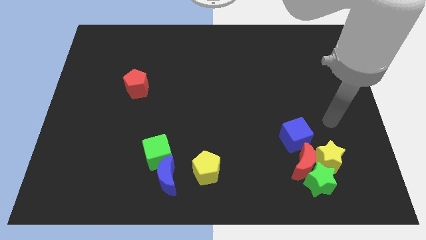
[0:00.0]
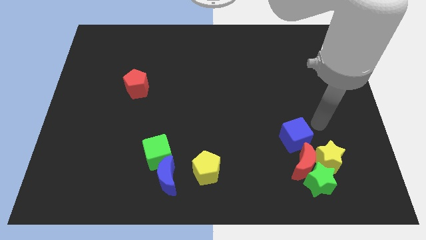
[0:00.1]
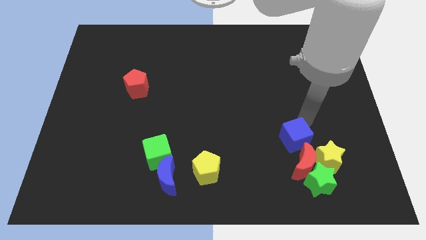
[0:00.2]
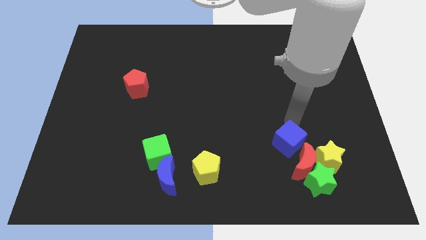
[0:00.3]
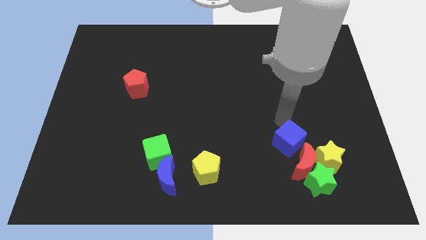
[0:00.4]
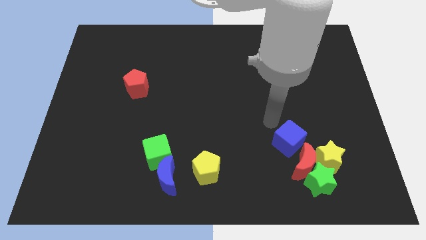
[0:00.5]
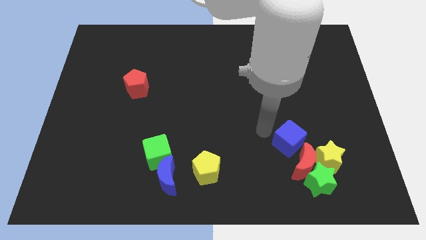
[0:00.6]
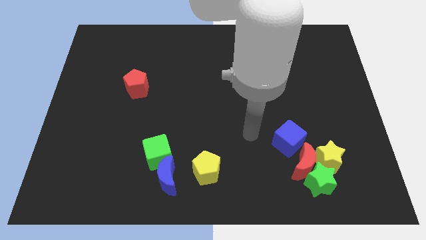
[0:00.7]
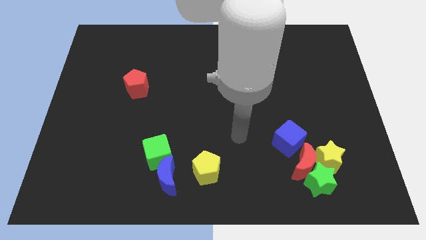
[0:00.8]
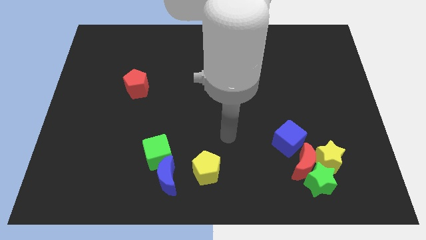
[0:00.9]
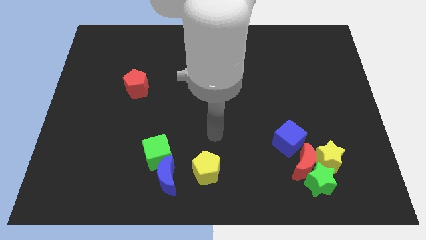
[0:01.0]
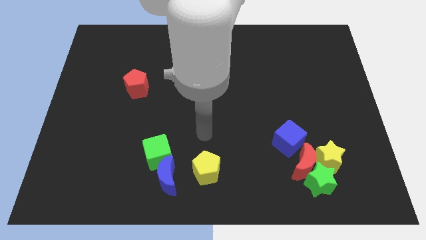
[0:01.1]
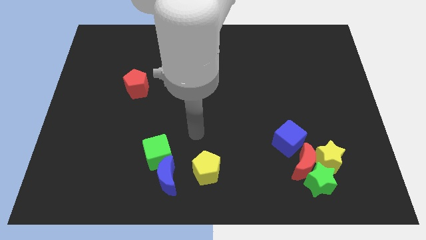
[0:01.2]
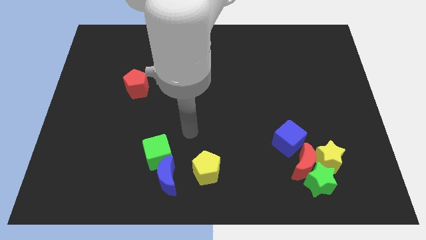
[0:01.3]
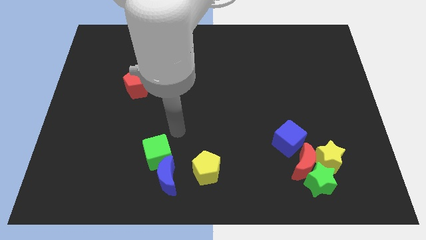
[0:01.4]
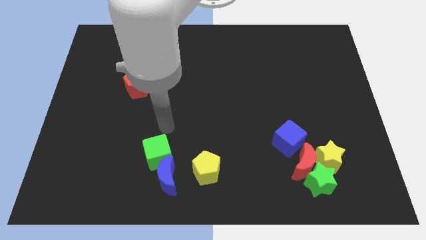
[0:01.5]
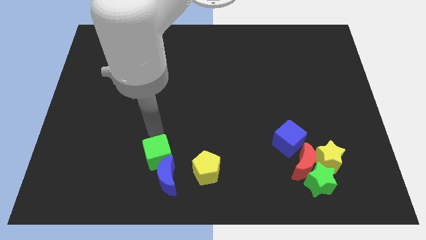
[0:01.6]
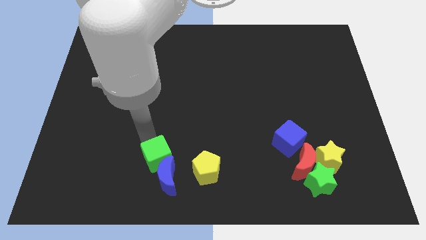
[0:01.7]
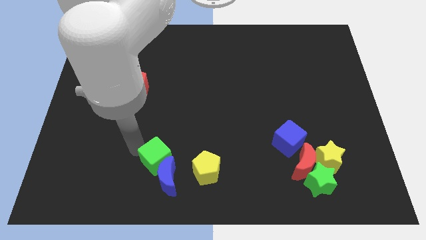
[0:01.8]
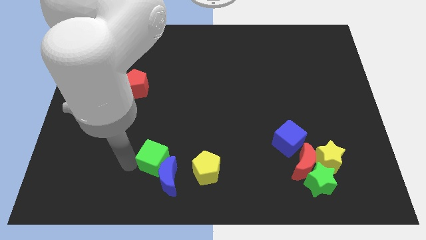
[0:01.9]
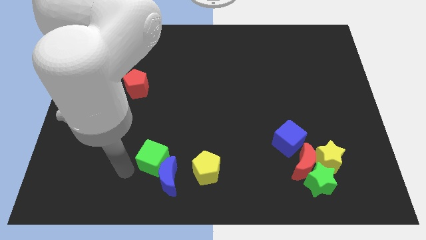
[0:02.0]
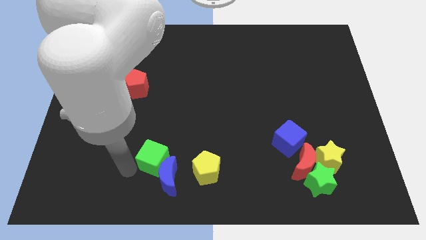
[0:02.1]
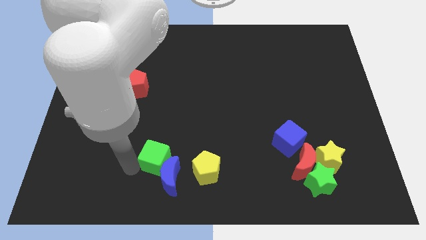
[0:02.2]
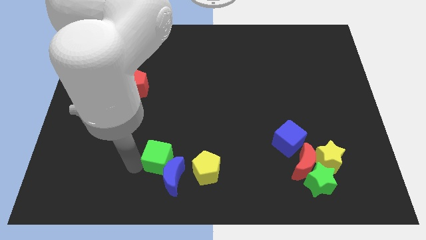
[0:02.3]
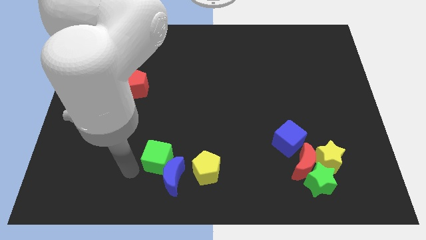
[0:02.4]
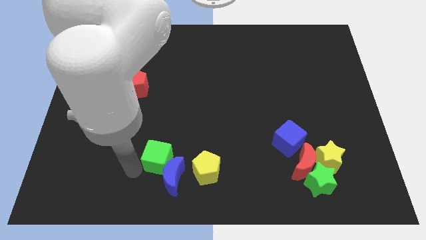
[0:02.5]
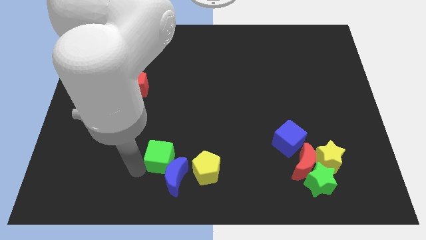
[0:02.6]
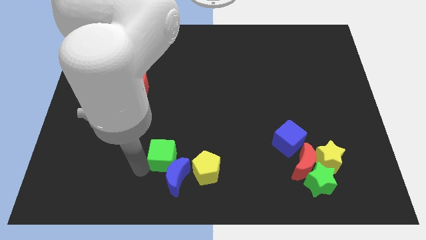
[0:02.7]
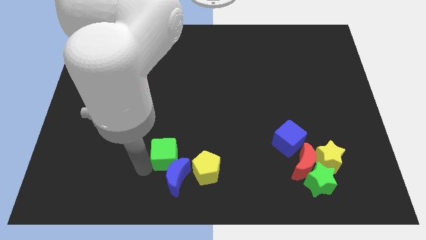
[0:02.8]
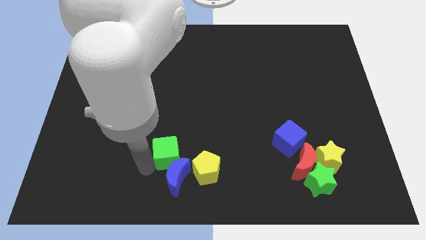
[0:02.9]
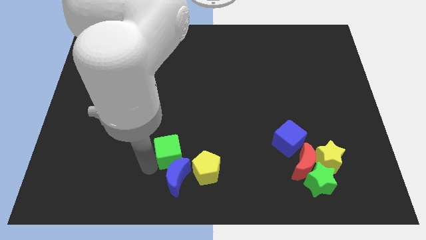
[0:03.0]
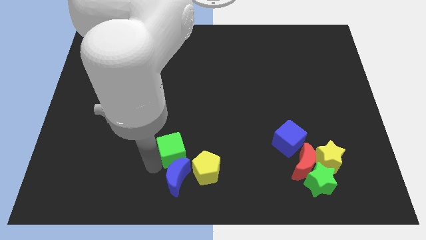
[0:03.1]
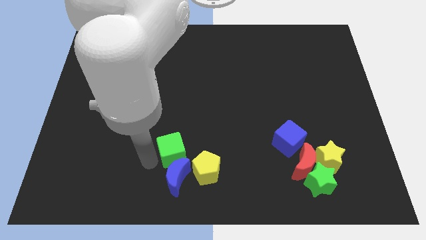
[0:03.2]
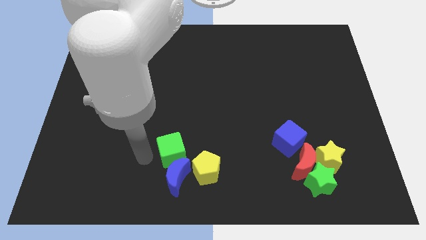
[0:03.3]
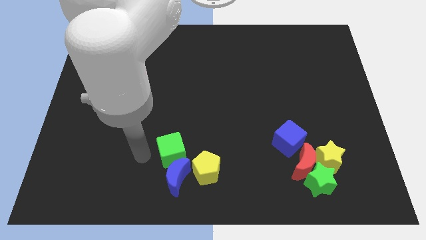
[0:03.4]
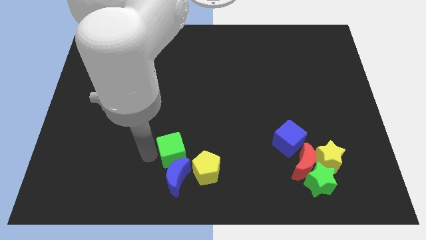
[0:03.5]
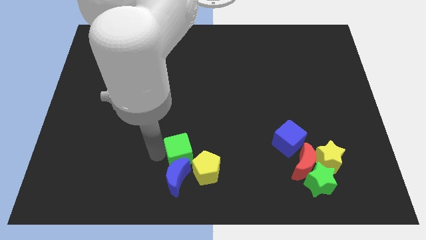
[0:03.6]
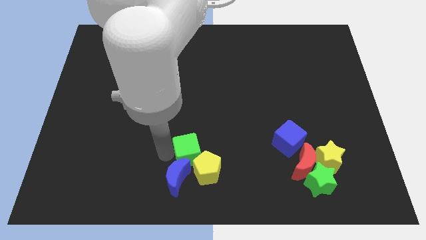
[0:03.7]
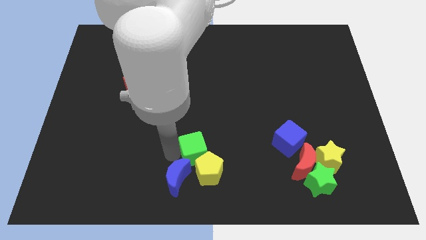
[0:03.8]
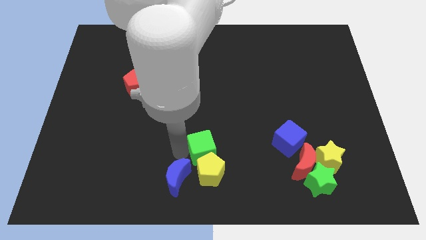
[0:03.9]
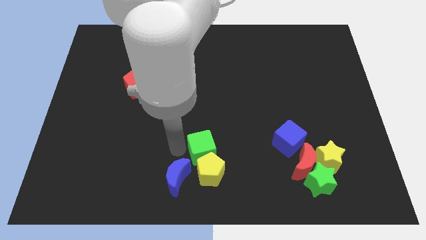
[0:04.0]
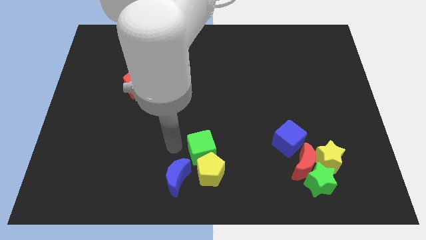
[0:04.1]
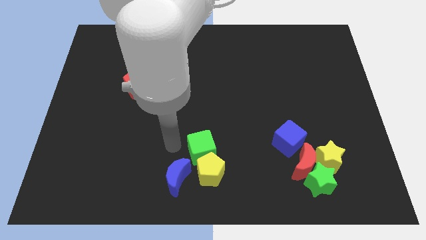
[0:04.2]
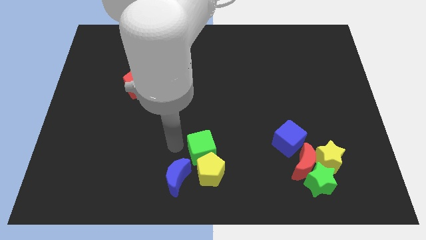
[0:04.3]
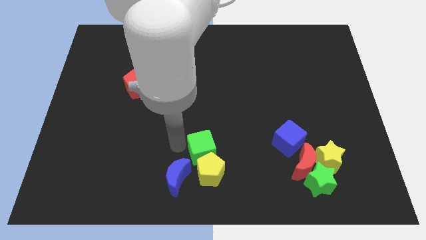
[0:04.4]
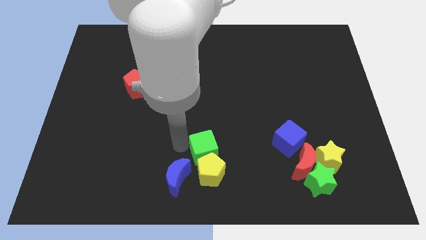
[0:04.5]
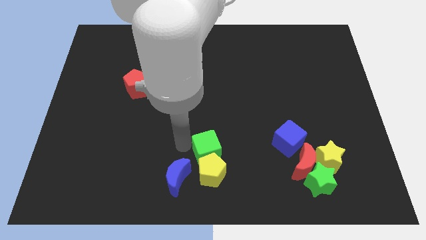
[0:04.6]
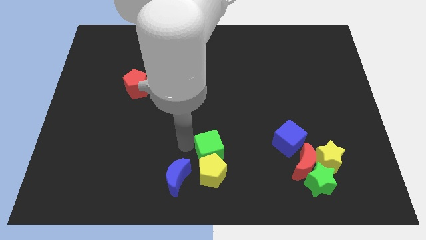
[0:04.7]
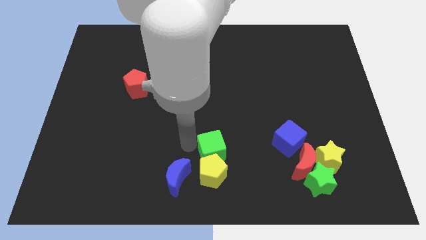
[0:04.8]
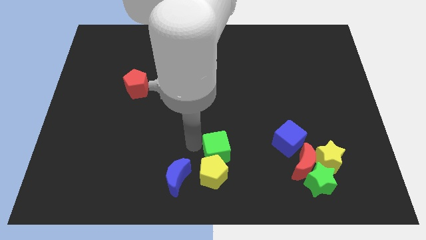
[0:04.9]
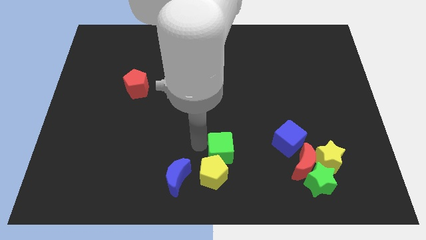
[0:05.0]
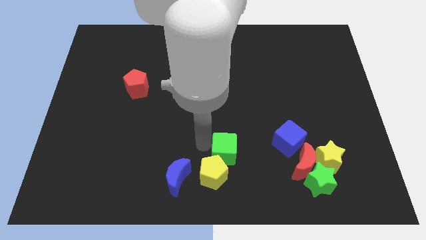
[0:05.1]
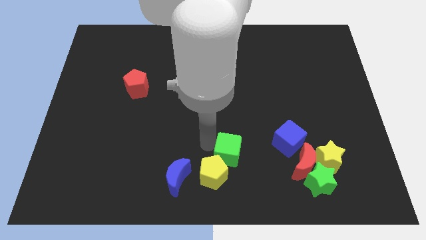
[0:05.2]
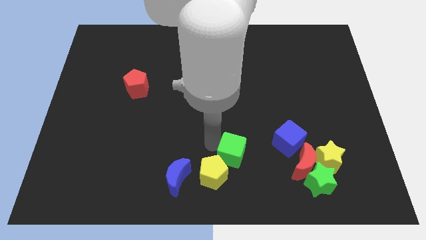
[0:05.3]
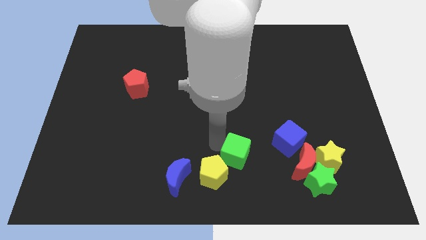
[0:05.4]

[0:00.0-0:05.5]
slide the green cube right of the yellow pentagon

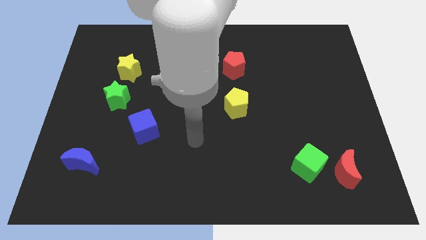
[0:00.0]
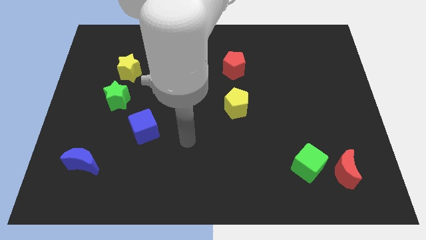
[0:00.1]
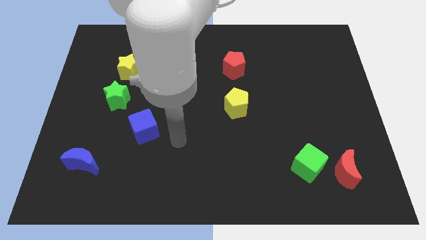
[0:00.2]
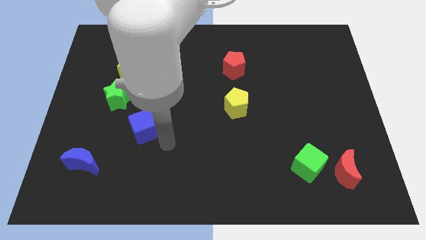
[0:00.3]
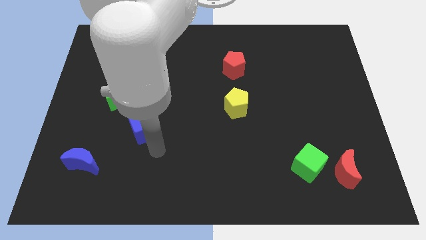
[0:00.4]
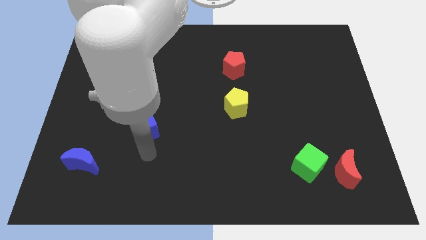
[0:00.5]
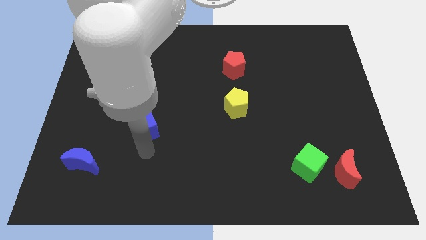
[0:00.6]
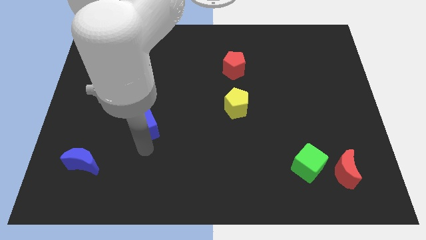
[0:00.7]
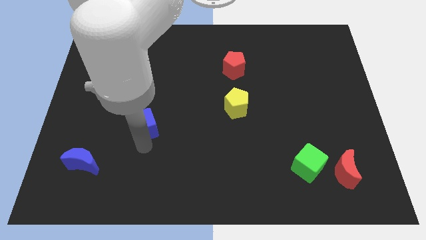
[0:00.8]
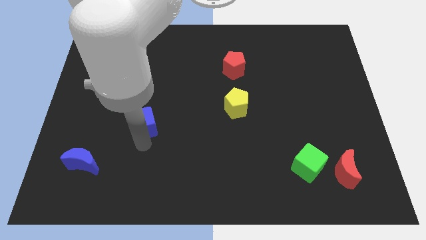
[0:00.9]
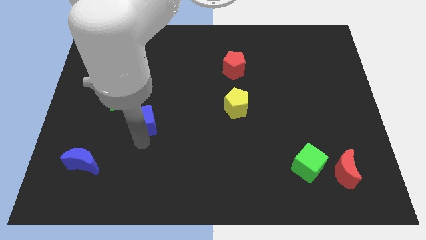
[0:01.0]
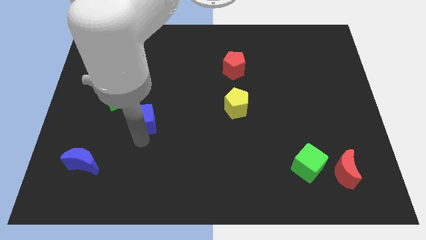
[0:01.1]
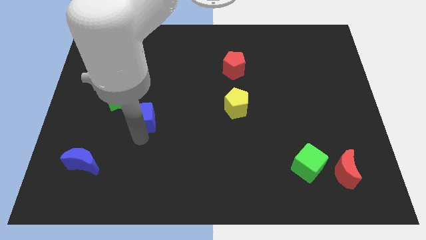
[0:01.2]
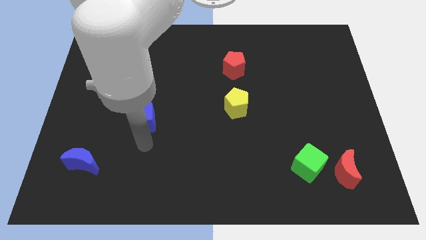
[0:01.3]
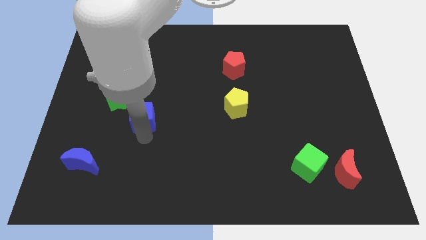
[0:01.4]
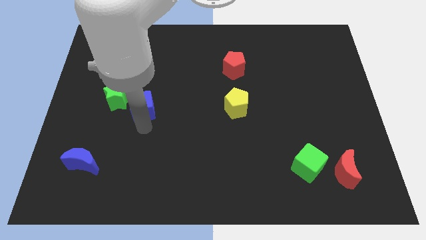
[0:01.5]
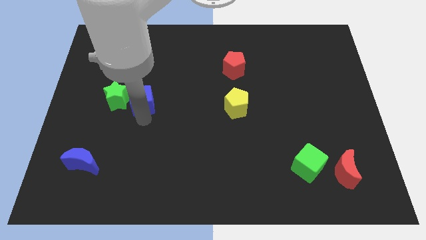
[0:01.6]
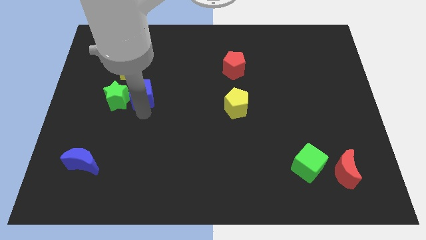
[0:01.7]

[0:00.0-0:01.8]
move the blue cube diagonally up and to the right of the green star
